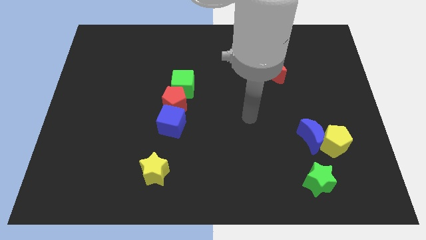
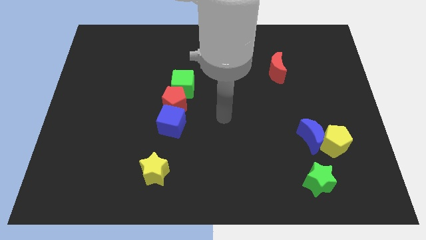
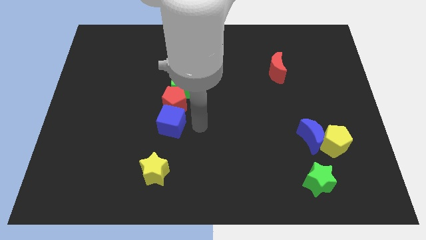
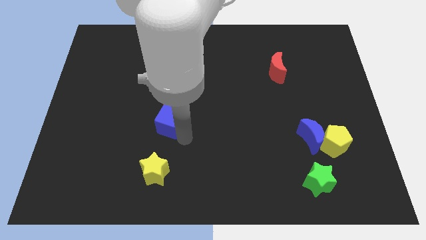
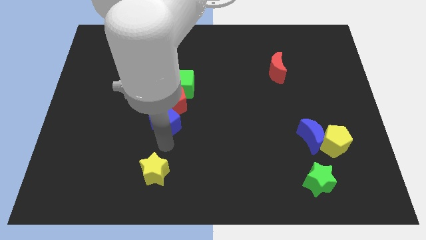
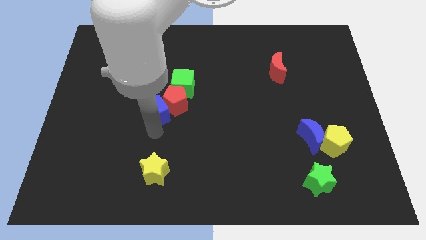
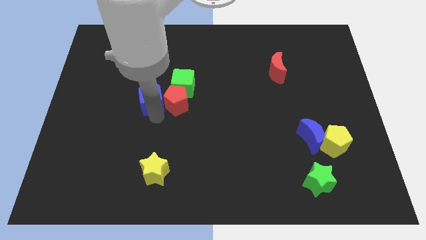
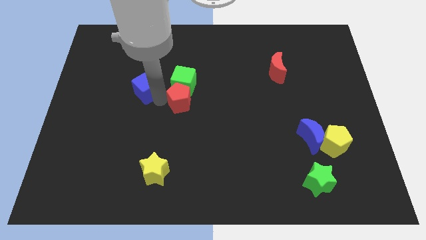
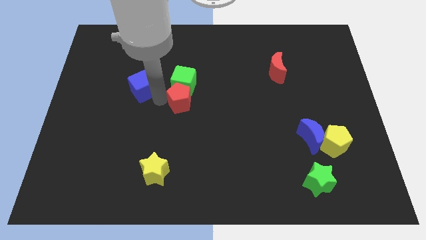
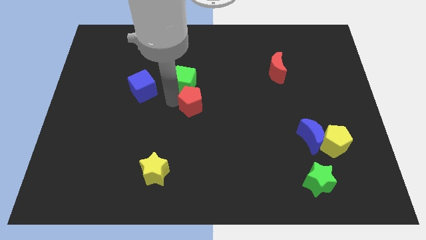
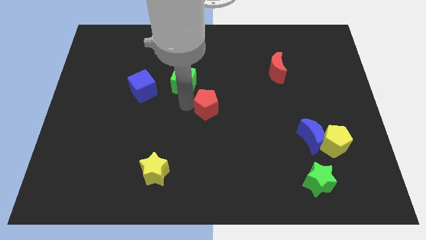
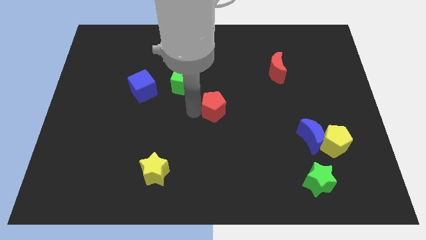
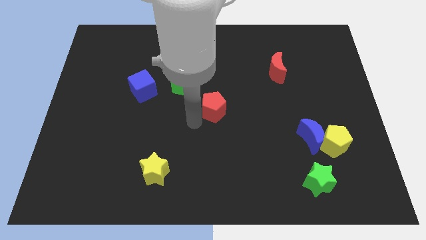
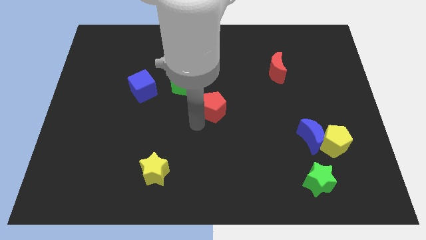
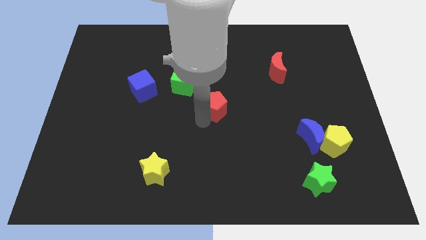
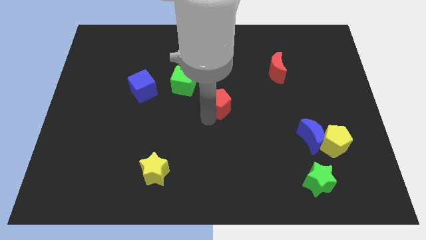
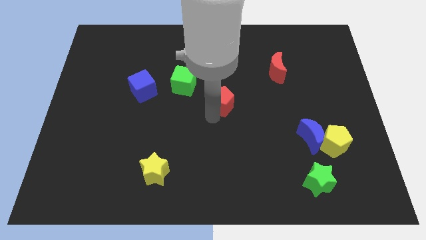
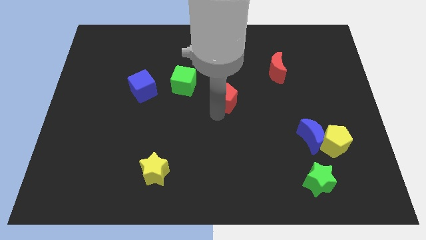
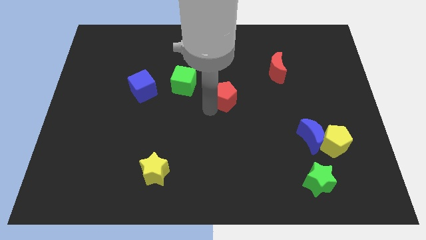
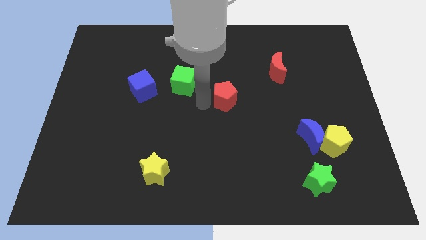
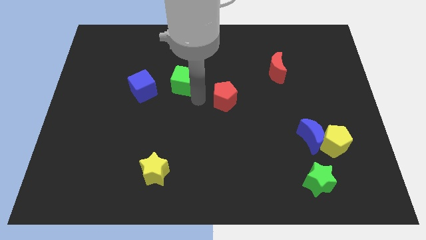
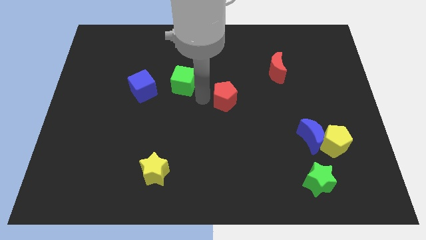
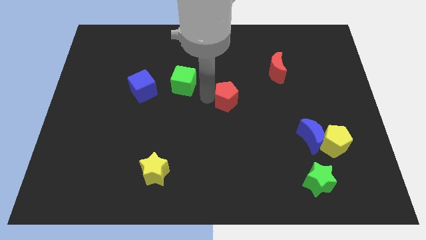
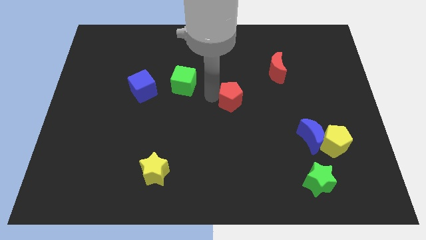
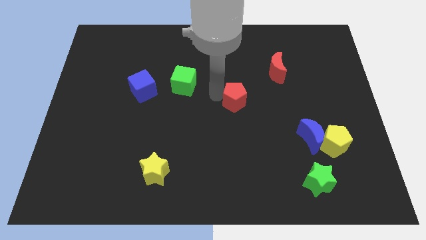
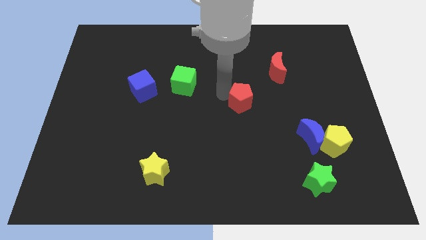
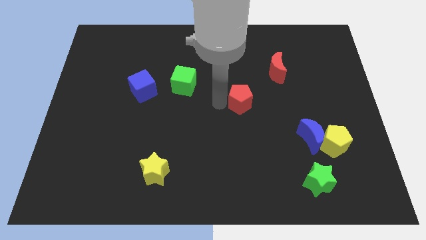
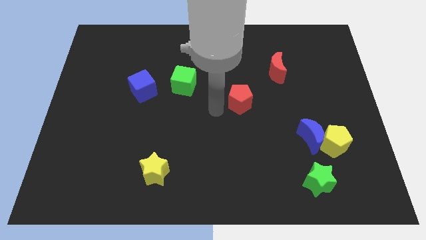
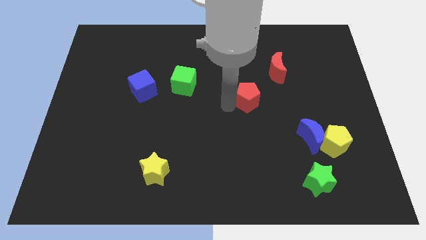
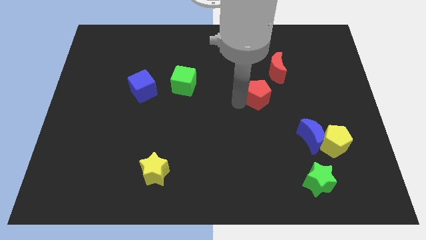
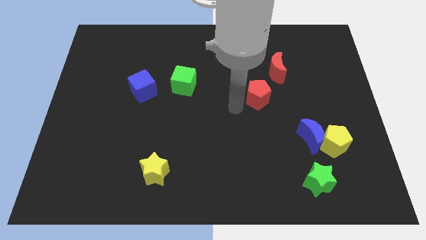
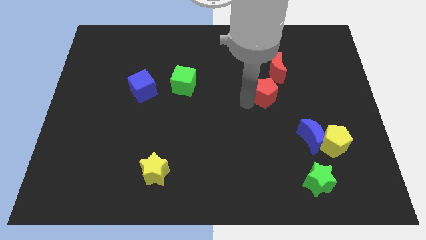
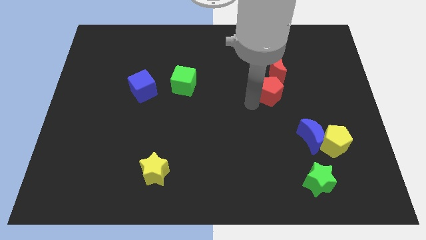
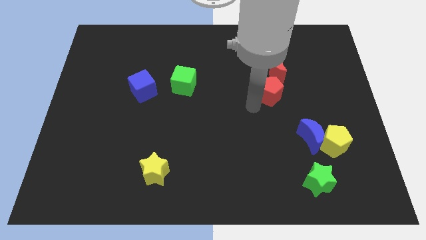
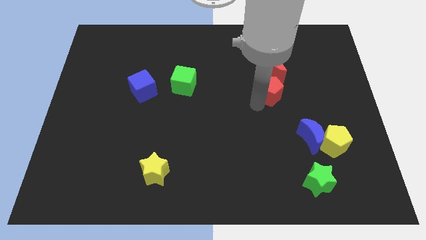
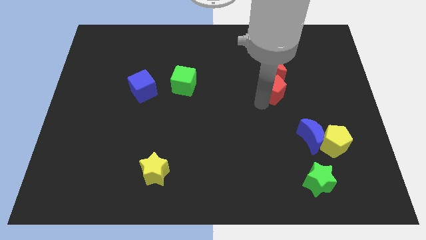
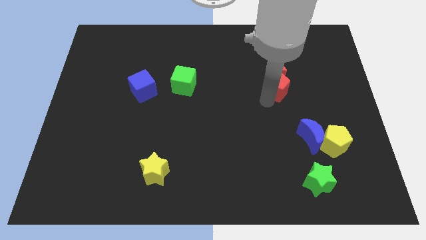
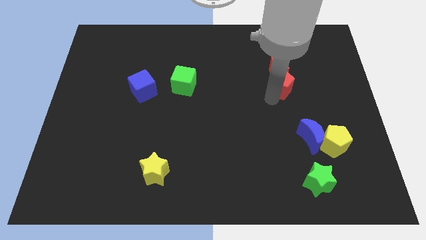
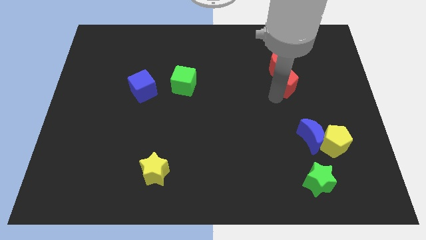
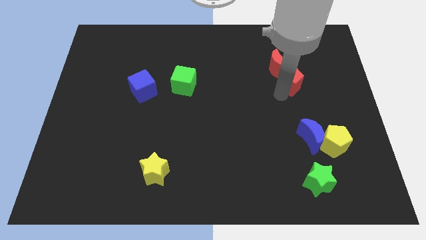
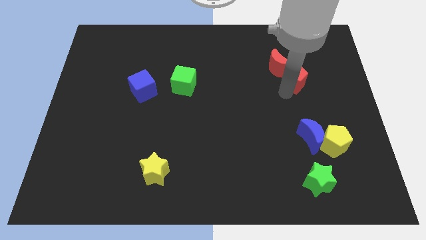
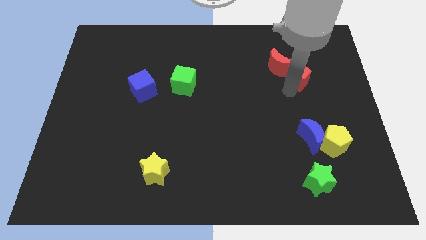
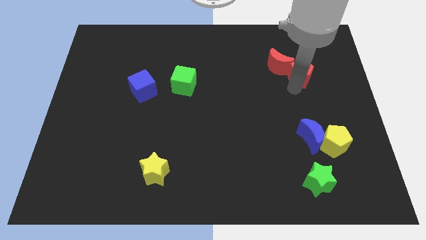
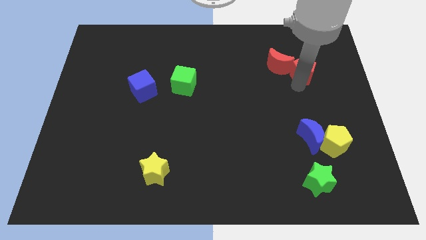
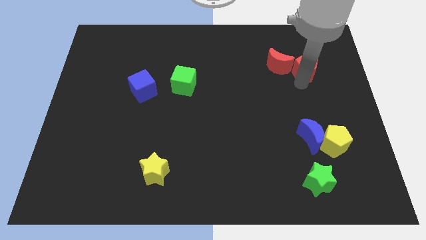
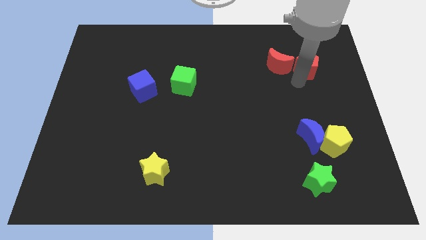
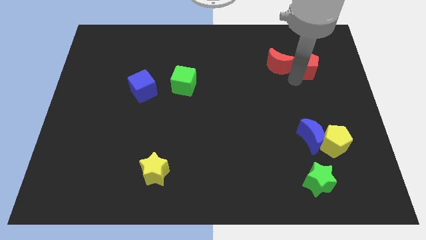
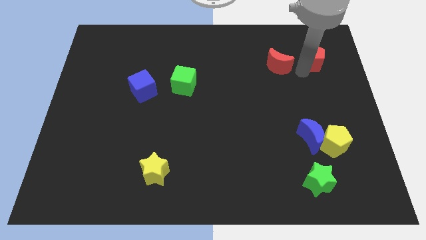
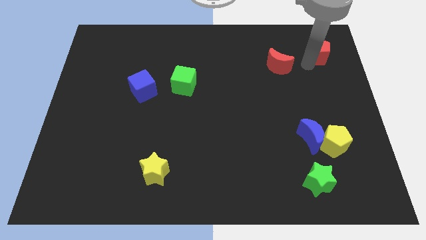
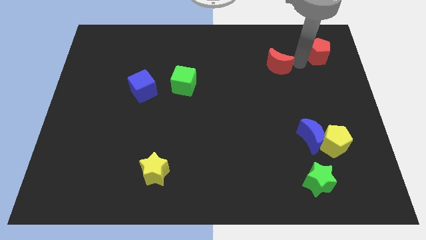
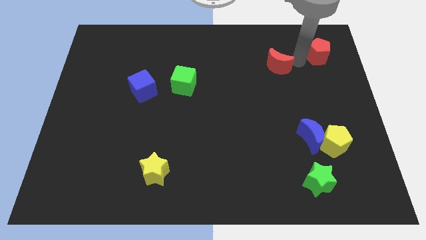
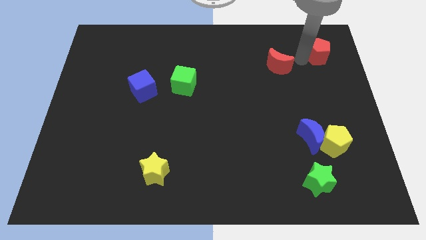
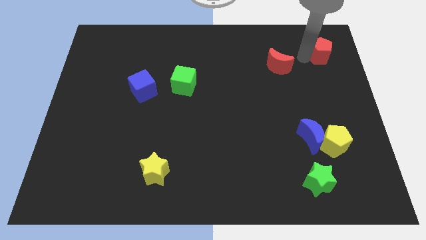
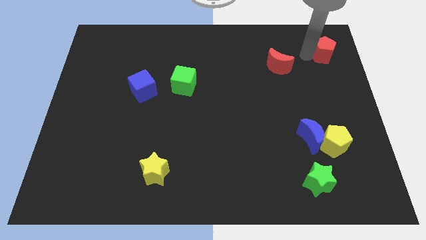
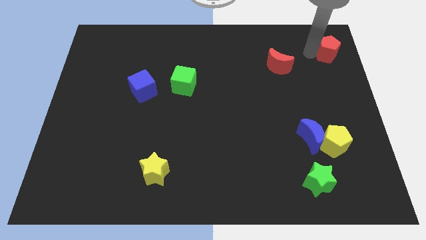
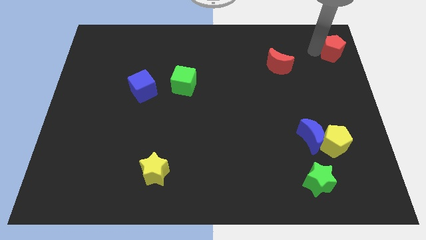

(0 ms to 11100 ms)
push the red pentagon to the upper right corner
